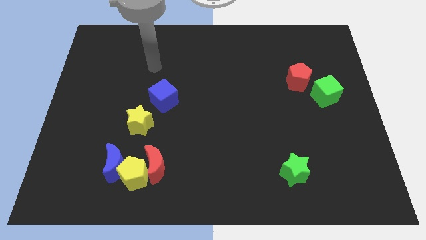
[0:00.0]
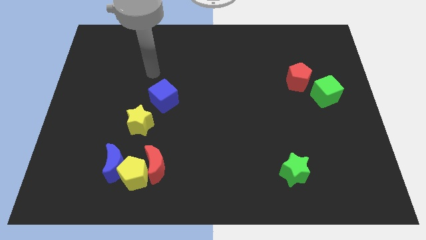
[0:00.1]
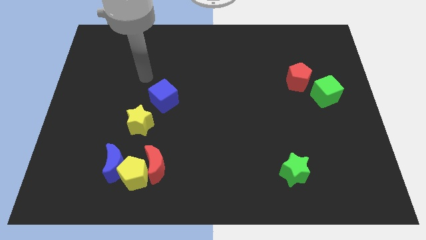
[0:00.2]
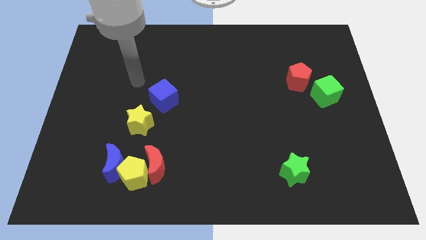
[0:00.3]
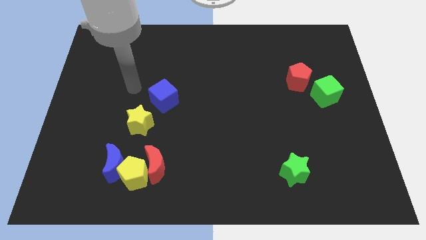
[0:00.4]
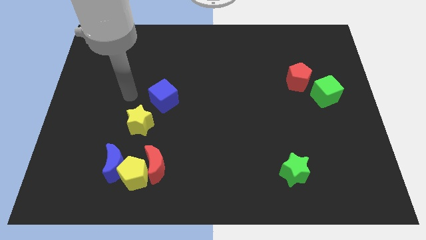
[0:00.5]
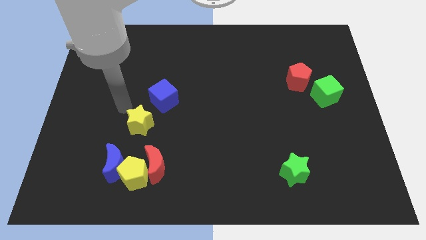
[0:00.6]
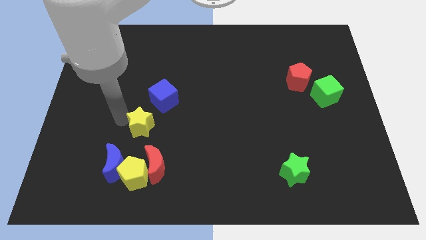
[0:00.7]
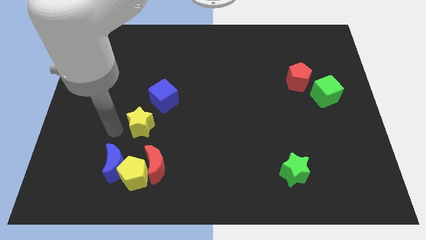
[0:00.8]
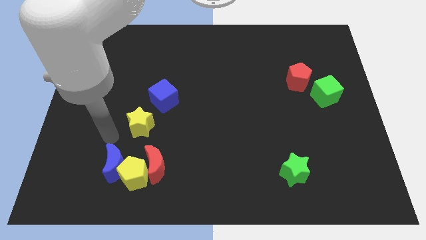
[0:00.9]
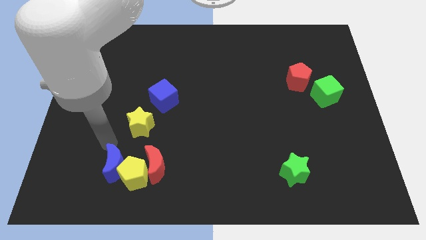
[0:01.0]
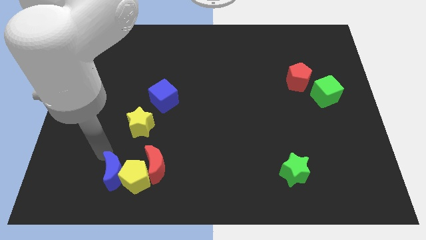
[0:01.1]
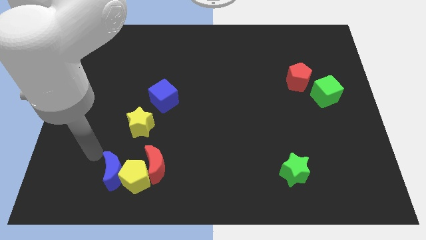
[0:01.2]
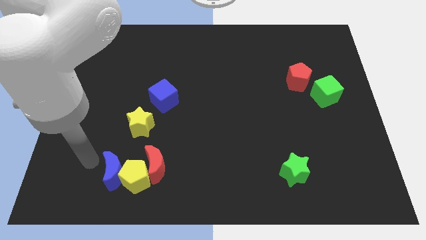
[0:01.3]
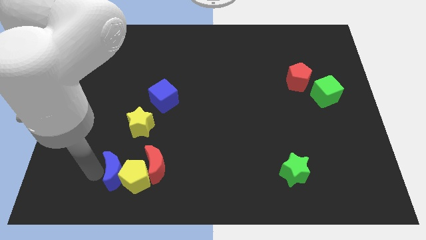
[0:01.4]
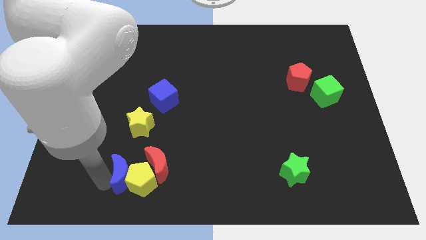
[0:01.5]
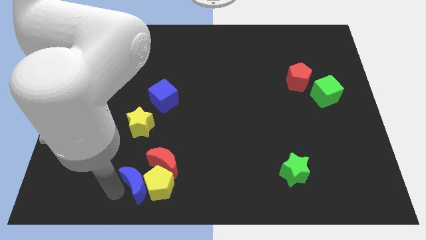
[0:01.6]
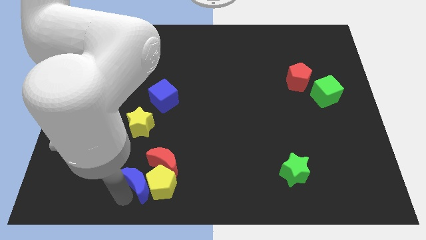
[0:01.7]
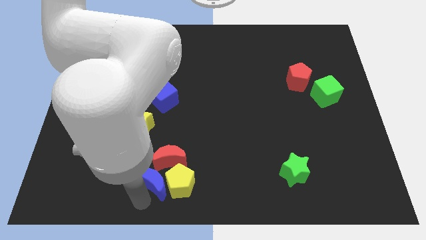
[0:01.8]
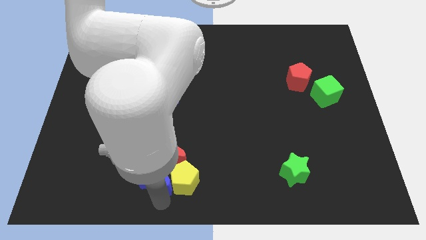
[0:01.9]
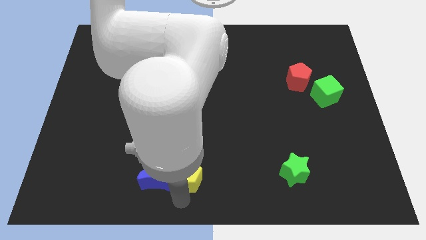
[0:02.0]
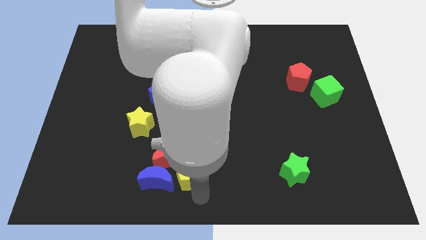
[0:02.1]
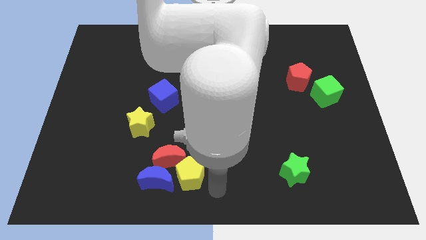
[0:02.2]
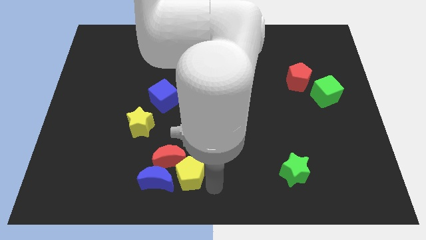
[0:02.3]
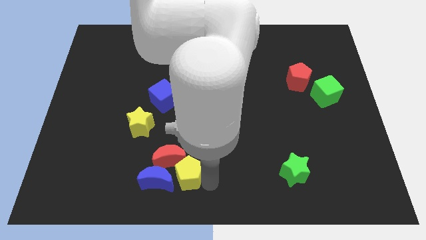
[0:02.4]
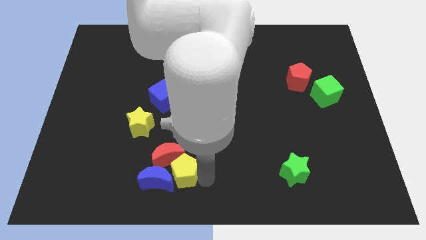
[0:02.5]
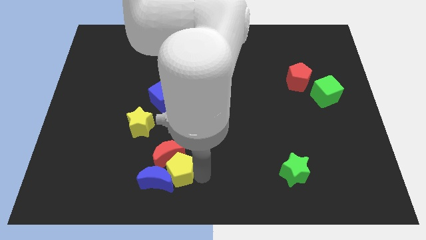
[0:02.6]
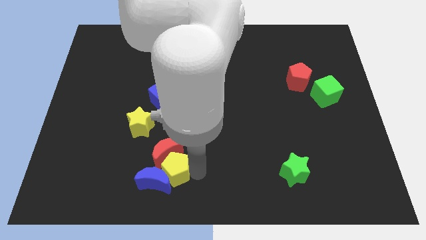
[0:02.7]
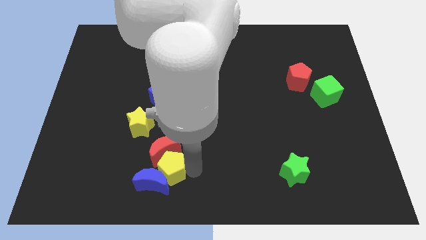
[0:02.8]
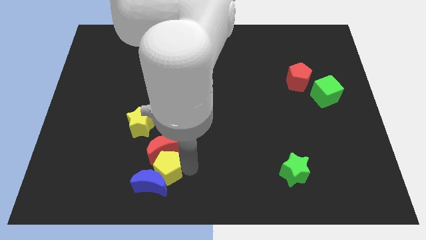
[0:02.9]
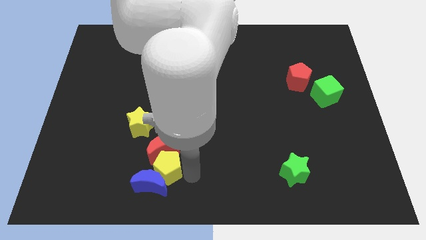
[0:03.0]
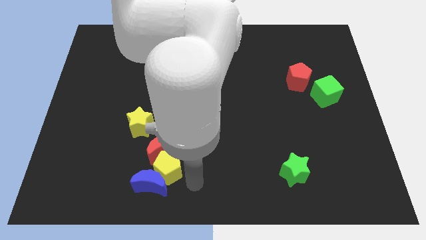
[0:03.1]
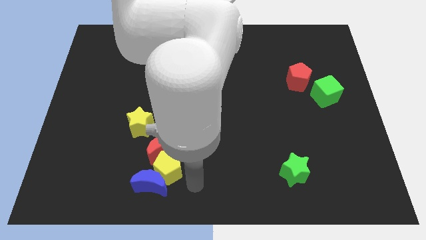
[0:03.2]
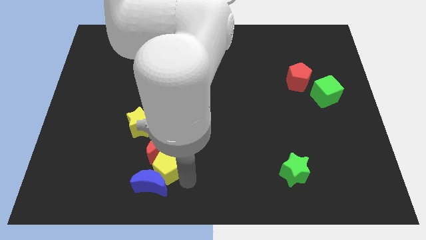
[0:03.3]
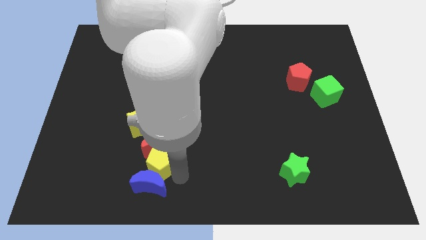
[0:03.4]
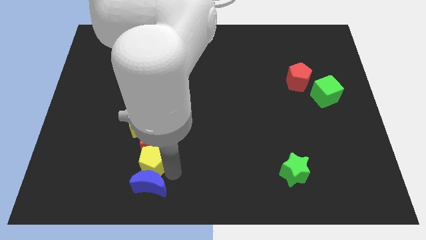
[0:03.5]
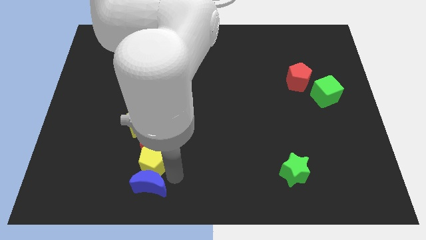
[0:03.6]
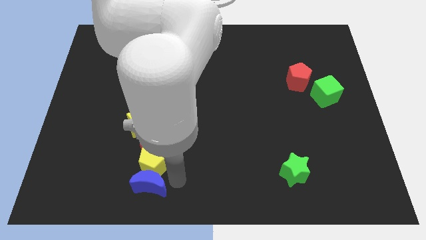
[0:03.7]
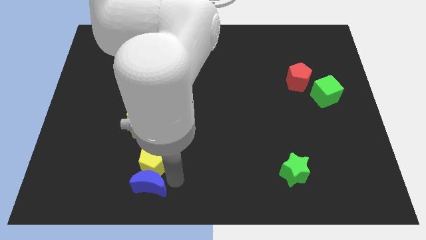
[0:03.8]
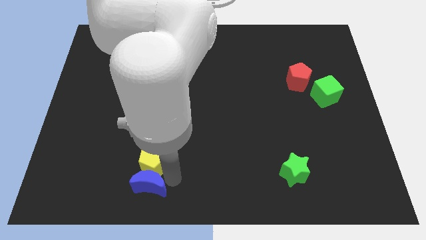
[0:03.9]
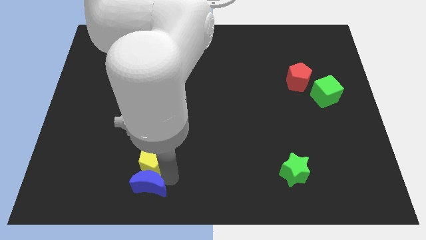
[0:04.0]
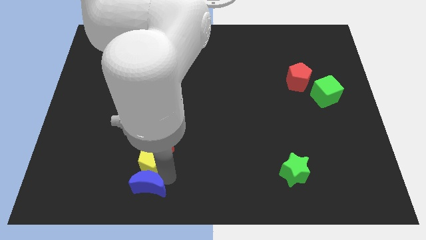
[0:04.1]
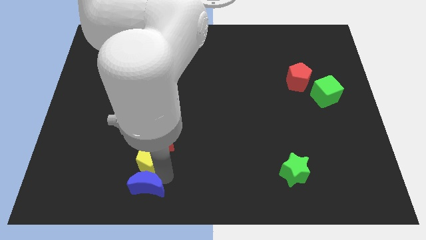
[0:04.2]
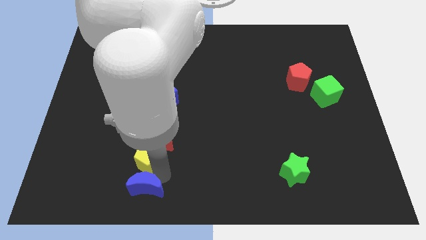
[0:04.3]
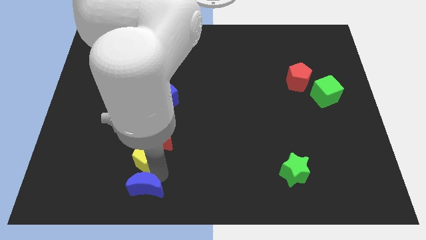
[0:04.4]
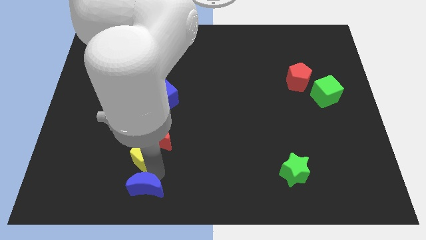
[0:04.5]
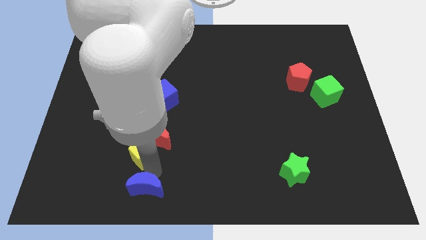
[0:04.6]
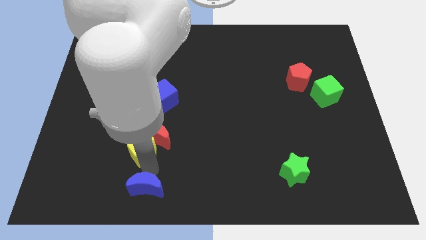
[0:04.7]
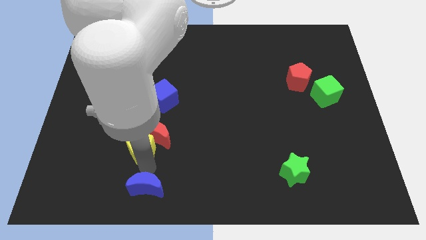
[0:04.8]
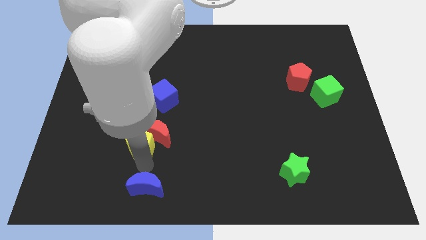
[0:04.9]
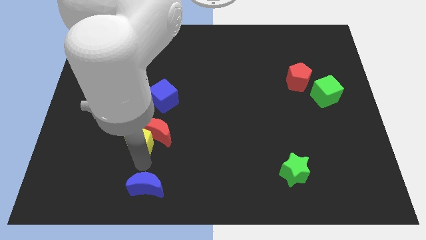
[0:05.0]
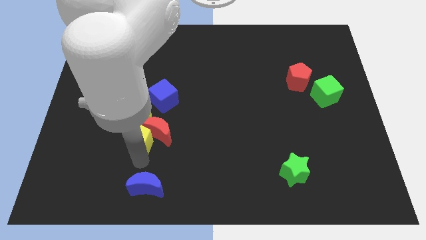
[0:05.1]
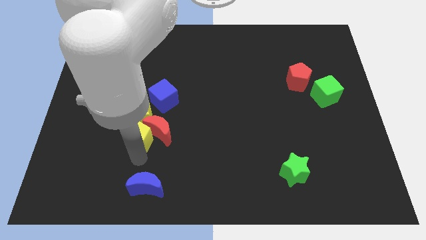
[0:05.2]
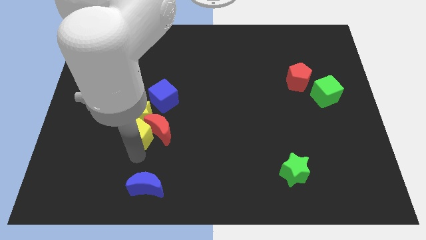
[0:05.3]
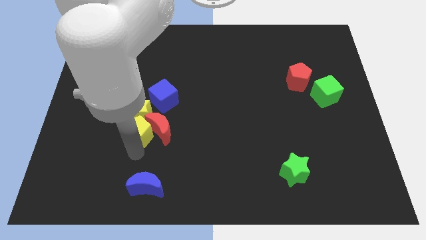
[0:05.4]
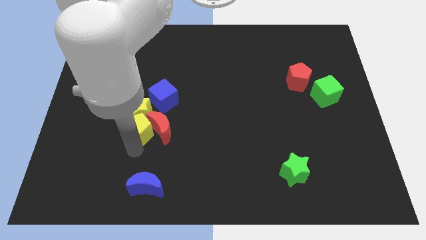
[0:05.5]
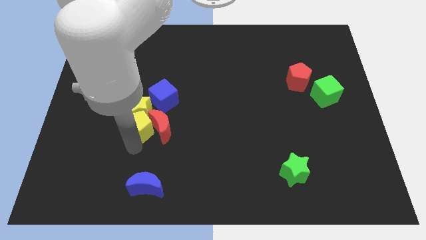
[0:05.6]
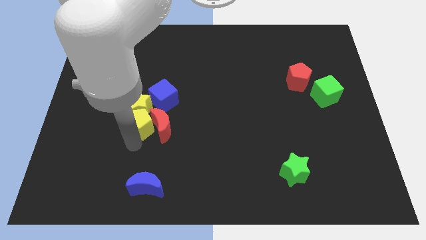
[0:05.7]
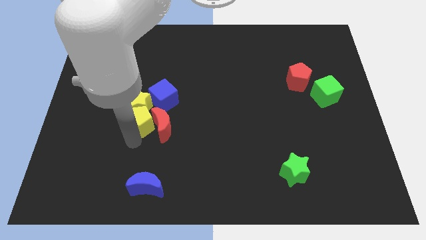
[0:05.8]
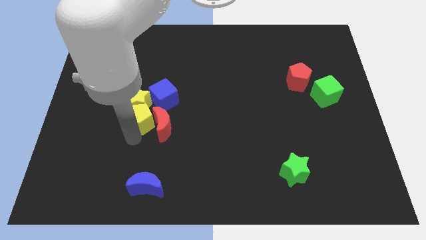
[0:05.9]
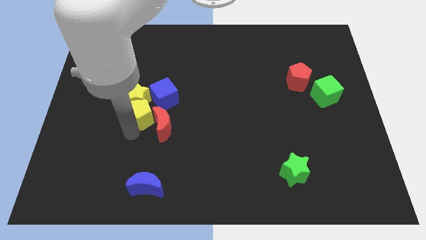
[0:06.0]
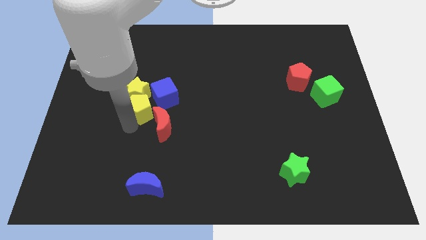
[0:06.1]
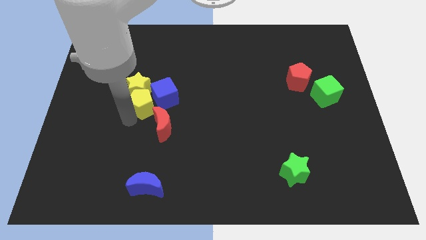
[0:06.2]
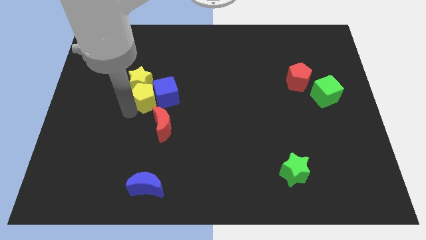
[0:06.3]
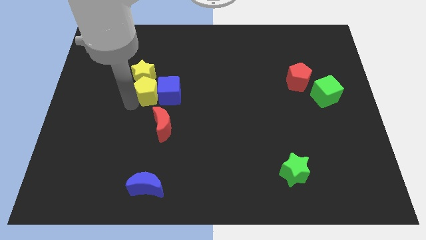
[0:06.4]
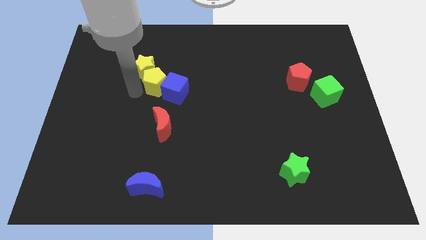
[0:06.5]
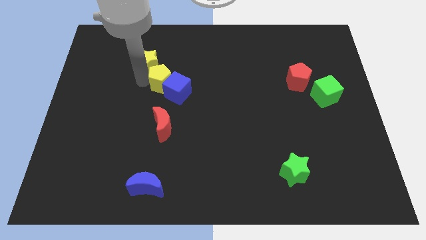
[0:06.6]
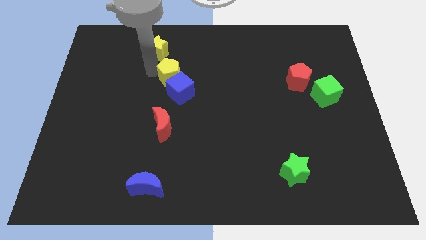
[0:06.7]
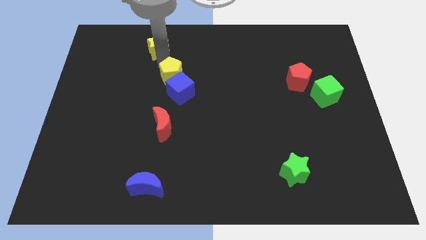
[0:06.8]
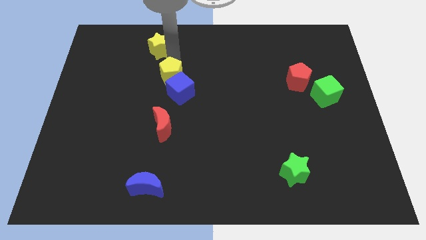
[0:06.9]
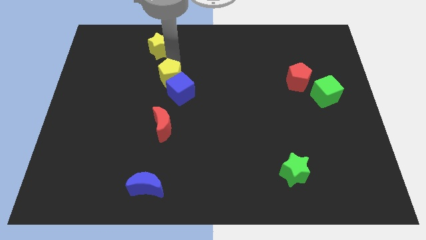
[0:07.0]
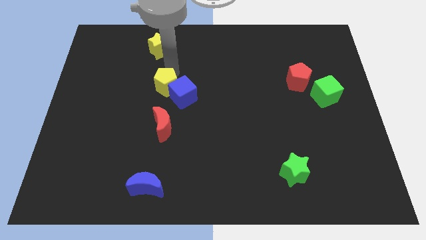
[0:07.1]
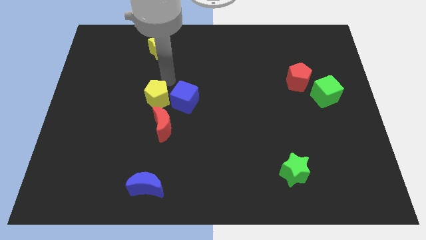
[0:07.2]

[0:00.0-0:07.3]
slide the yellow pentagon up and then to the right somewhat

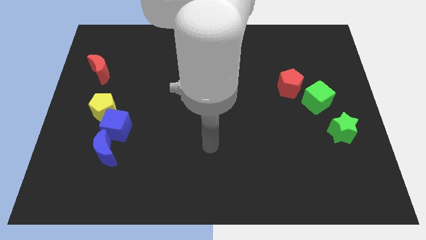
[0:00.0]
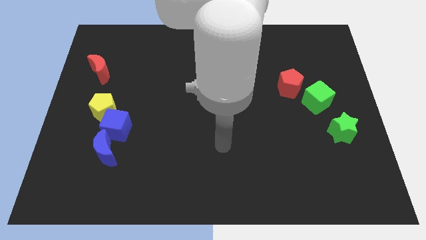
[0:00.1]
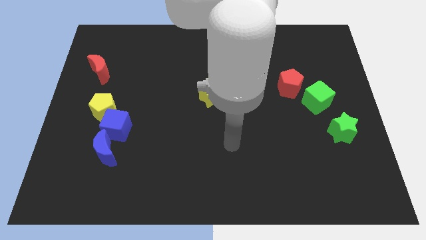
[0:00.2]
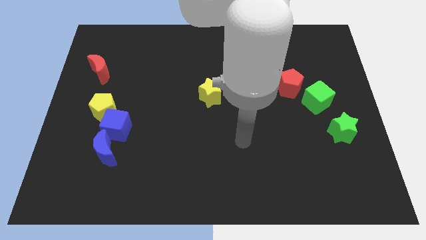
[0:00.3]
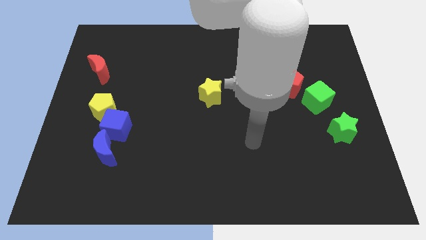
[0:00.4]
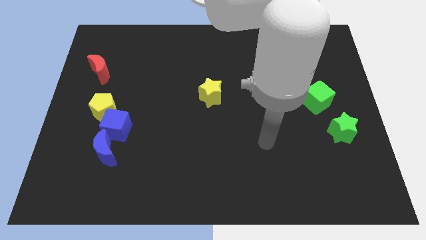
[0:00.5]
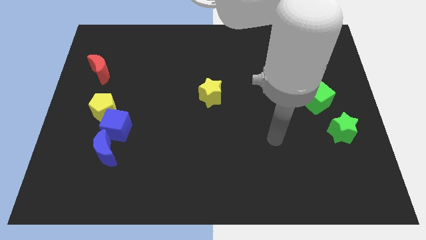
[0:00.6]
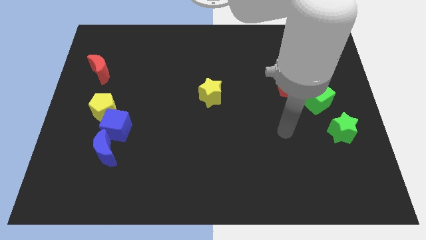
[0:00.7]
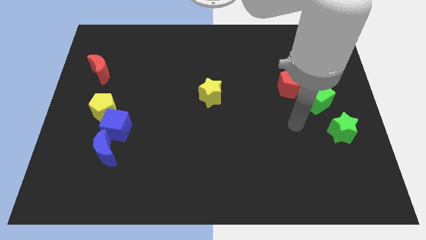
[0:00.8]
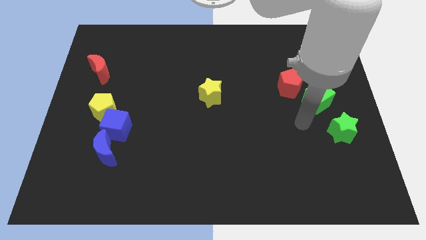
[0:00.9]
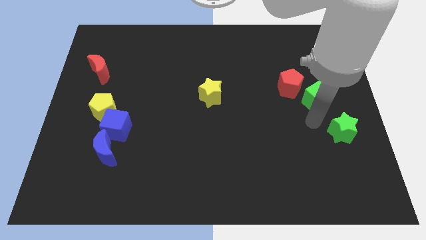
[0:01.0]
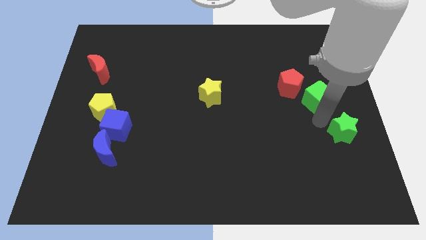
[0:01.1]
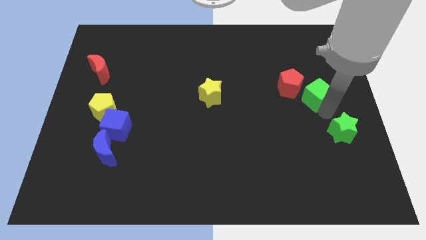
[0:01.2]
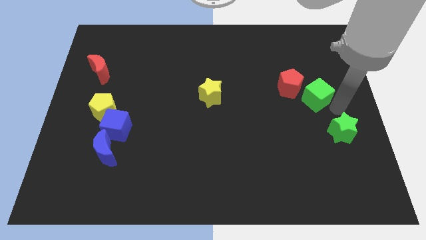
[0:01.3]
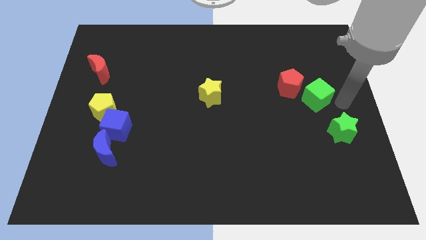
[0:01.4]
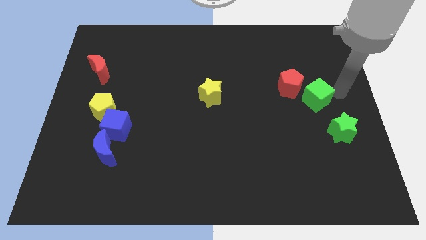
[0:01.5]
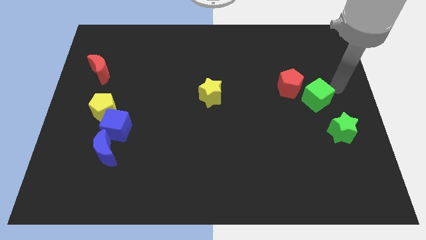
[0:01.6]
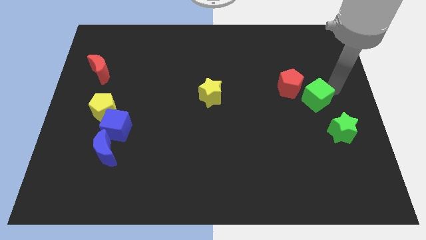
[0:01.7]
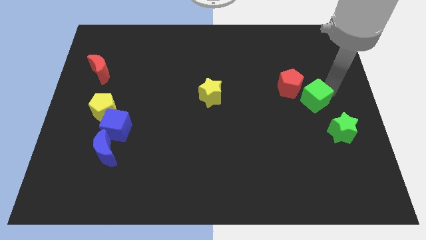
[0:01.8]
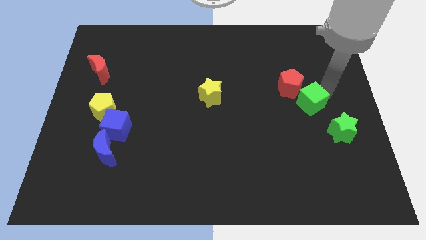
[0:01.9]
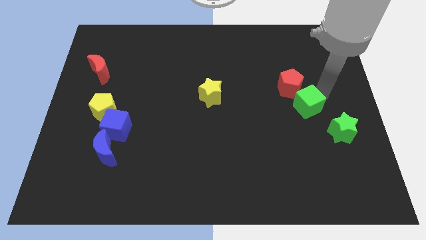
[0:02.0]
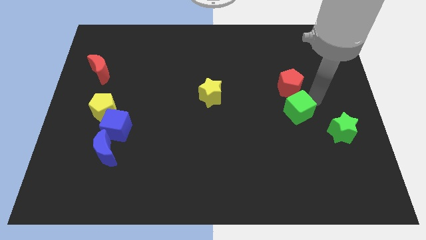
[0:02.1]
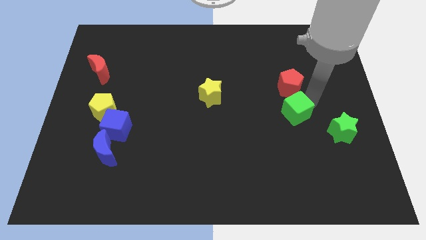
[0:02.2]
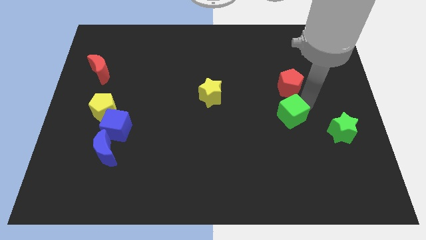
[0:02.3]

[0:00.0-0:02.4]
move the green cube diagonally down and left somewhat
